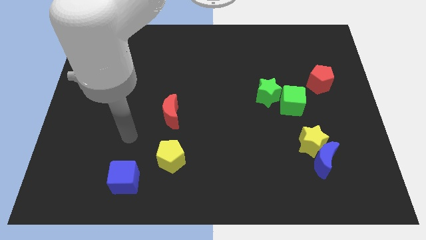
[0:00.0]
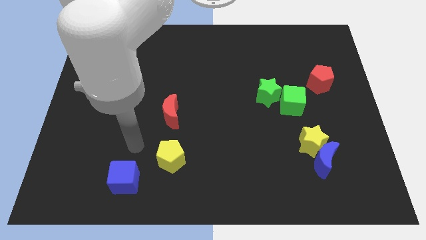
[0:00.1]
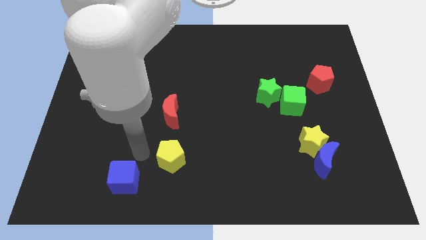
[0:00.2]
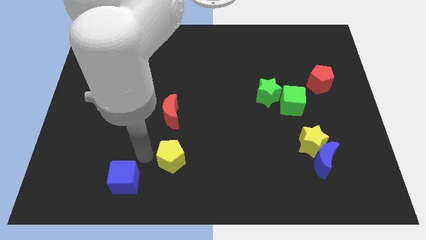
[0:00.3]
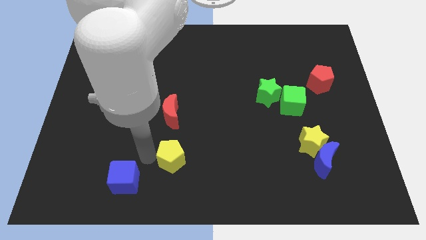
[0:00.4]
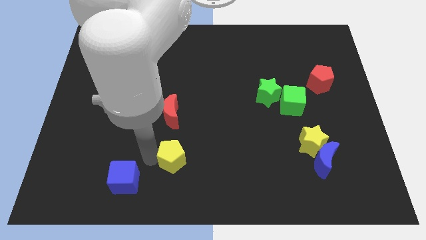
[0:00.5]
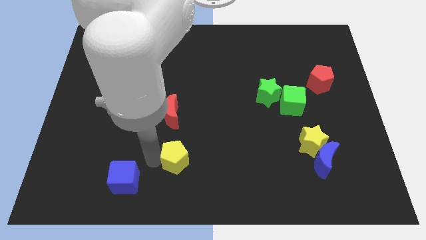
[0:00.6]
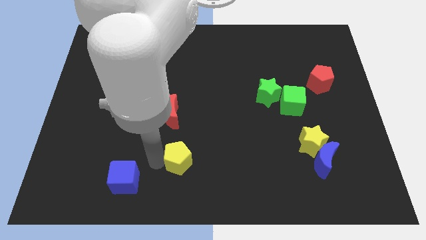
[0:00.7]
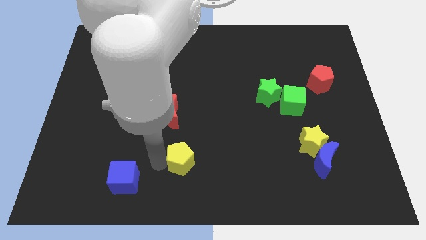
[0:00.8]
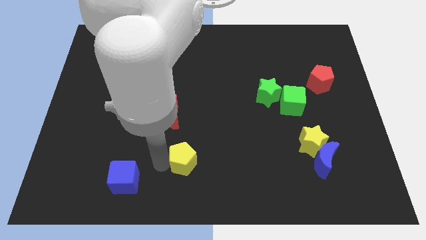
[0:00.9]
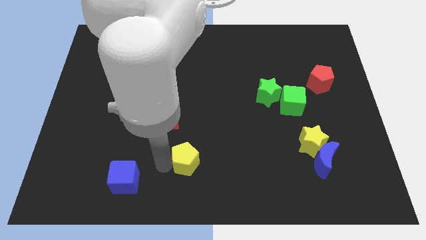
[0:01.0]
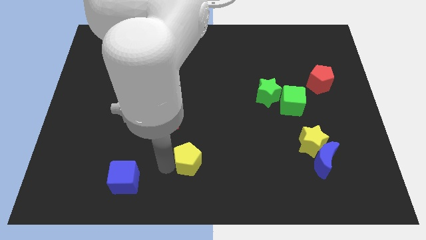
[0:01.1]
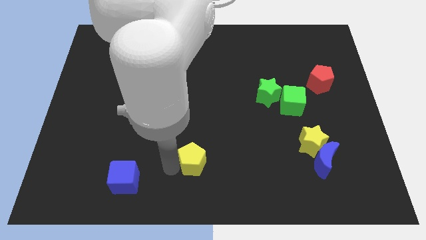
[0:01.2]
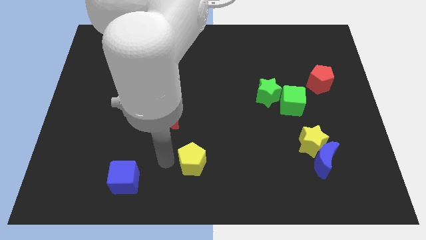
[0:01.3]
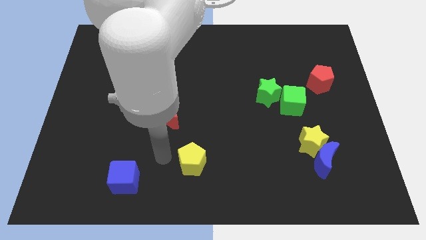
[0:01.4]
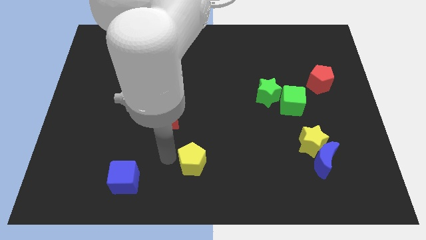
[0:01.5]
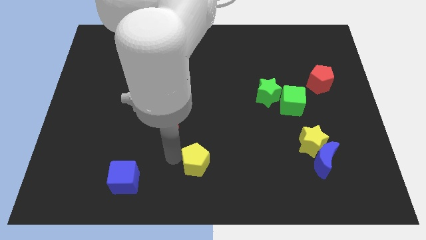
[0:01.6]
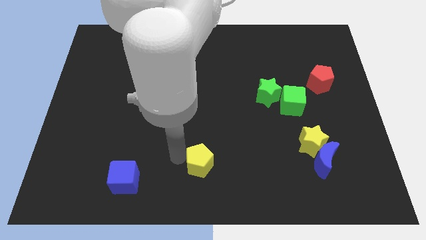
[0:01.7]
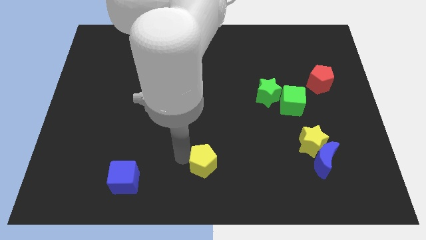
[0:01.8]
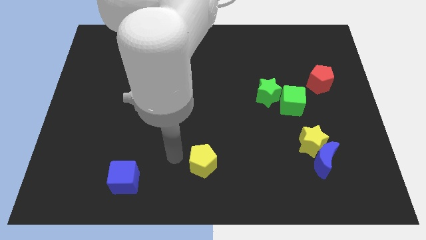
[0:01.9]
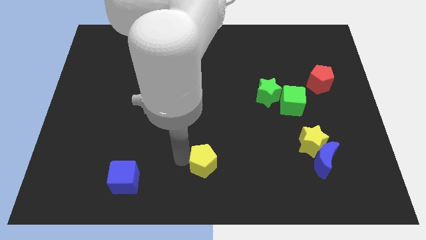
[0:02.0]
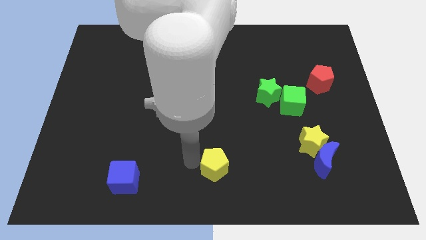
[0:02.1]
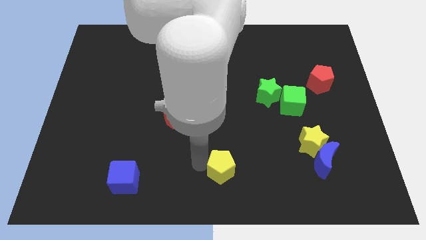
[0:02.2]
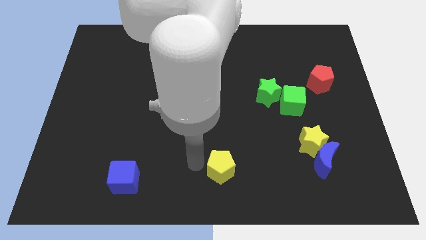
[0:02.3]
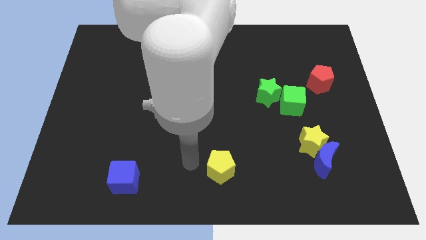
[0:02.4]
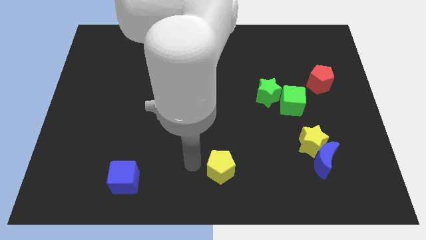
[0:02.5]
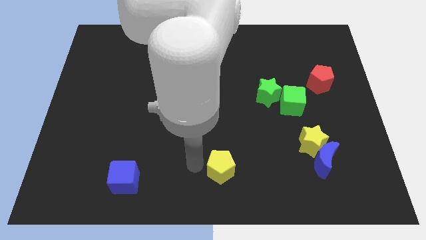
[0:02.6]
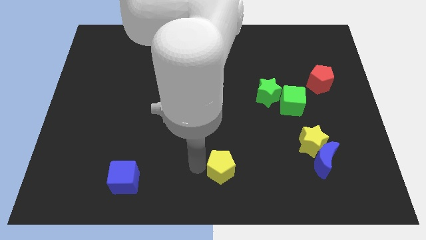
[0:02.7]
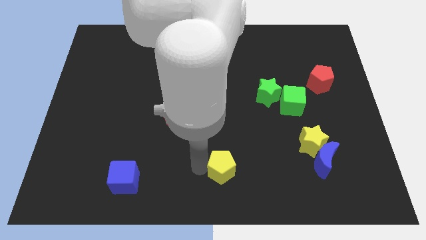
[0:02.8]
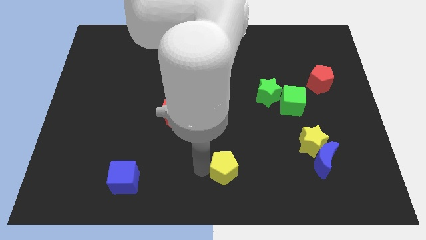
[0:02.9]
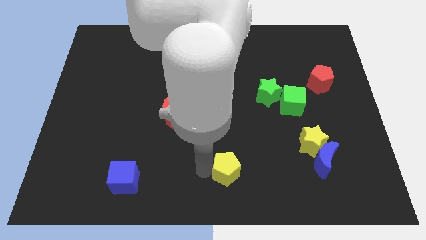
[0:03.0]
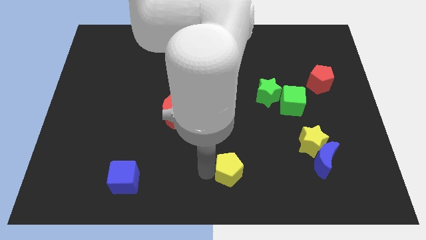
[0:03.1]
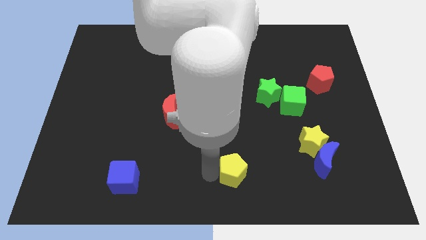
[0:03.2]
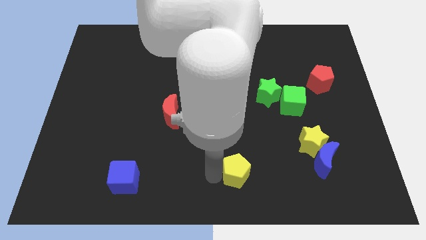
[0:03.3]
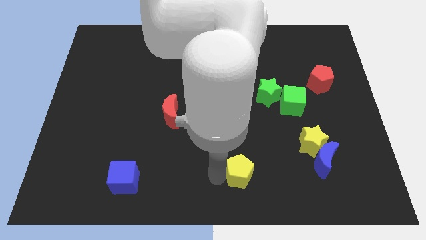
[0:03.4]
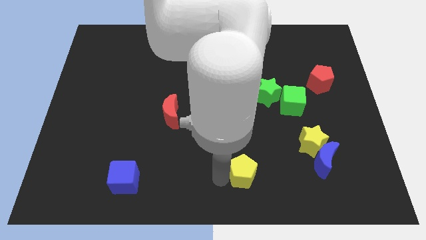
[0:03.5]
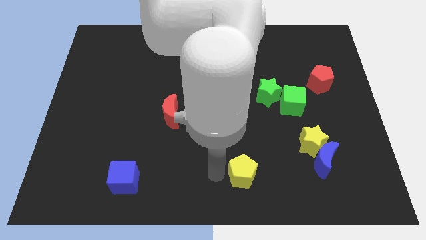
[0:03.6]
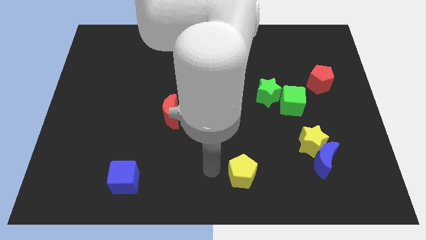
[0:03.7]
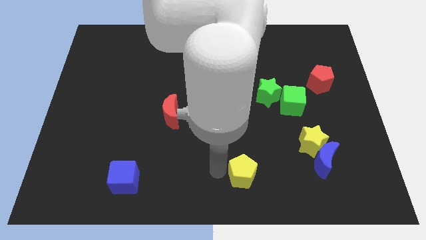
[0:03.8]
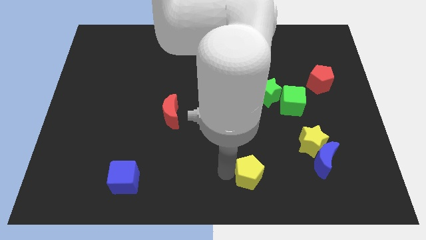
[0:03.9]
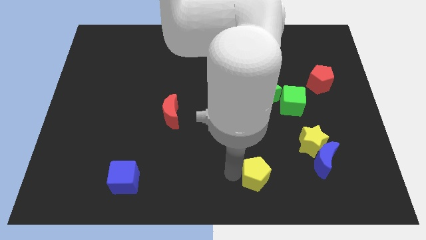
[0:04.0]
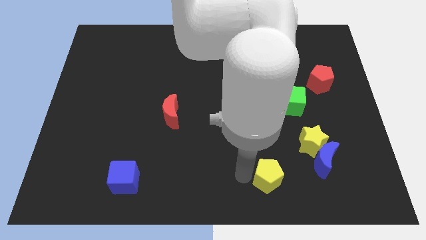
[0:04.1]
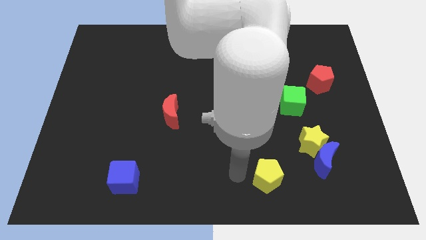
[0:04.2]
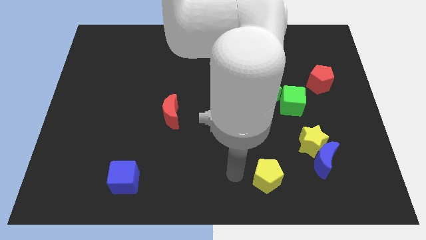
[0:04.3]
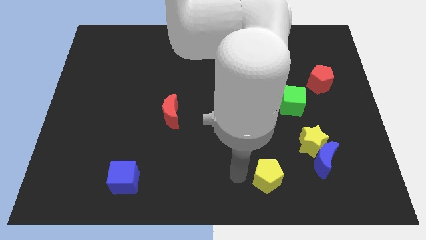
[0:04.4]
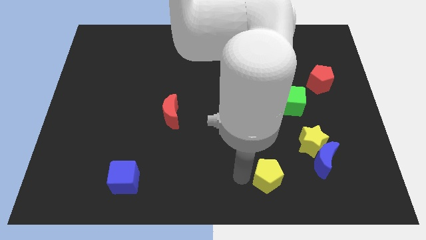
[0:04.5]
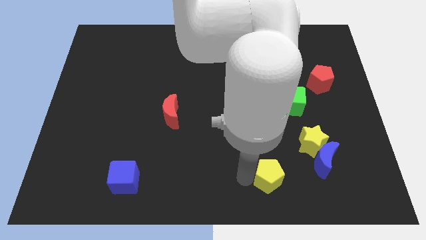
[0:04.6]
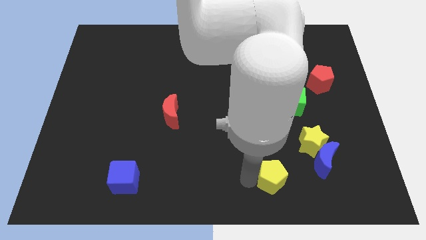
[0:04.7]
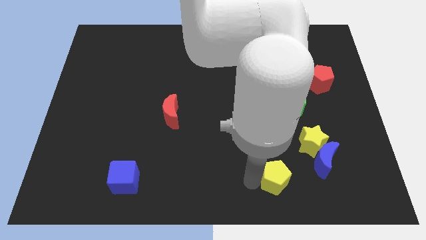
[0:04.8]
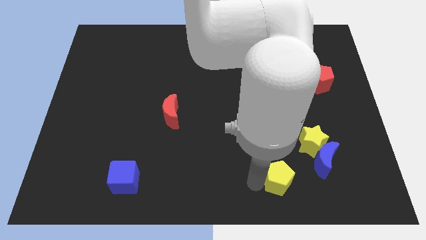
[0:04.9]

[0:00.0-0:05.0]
put the yellow pentagon to the bottom left of the blue moon

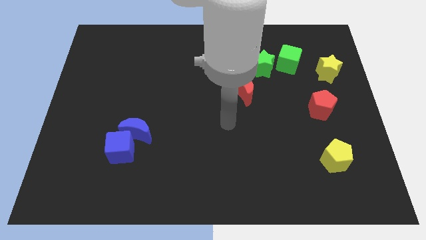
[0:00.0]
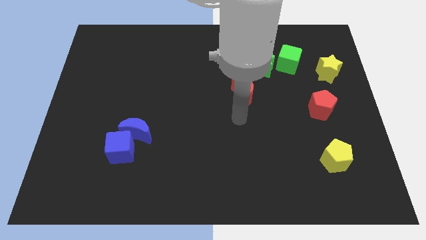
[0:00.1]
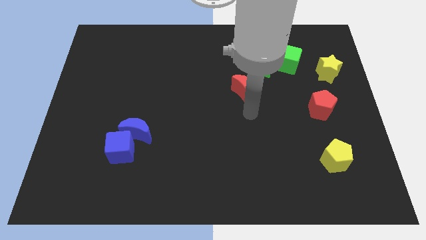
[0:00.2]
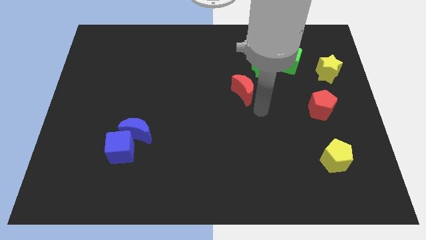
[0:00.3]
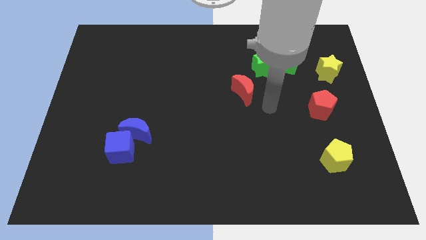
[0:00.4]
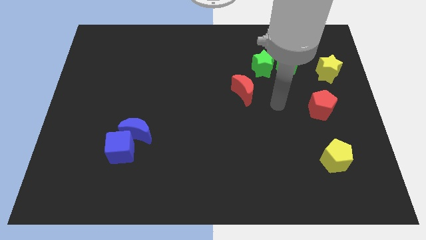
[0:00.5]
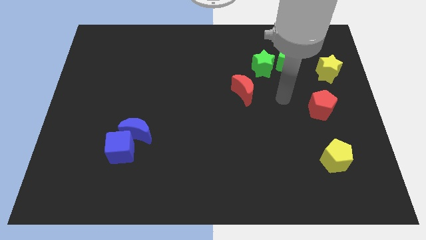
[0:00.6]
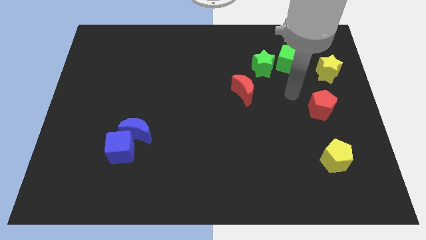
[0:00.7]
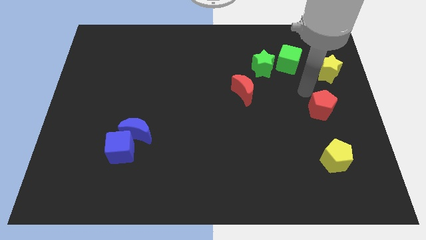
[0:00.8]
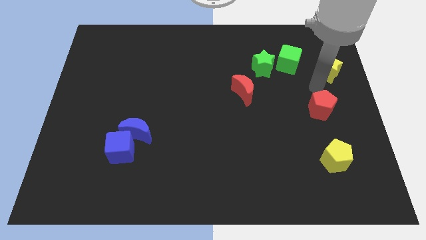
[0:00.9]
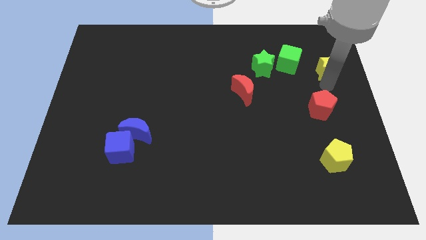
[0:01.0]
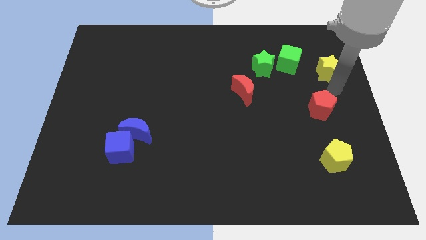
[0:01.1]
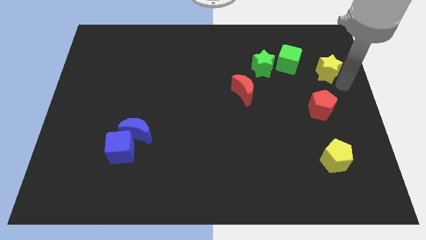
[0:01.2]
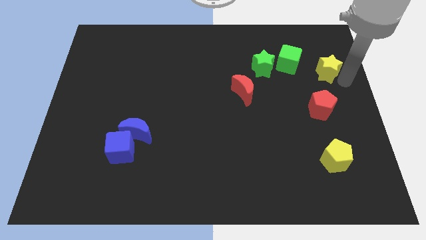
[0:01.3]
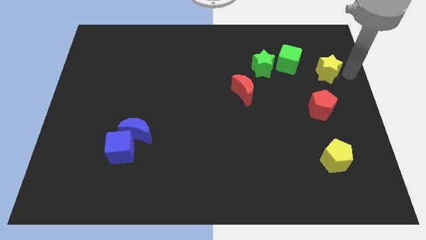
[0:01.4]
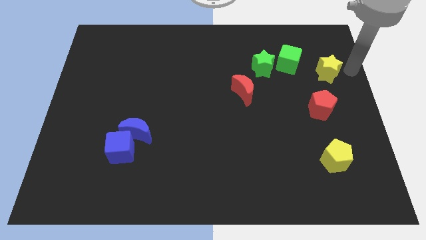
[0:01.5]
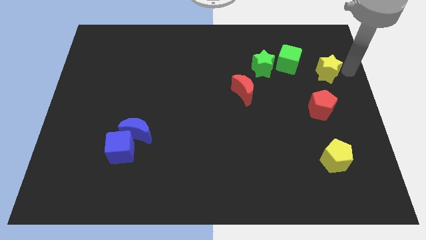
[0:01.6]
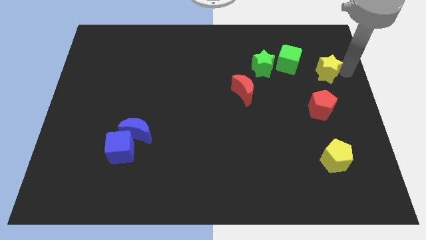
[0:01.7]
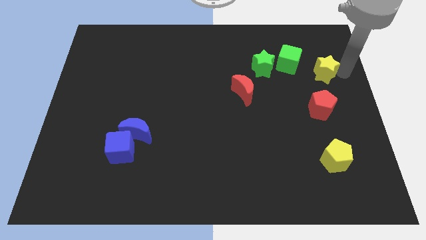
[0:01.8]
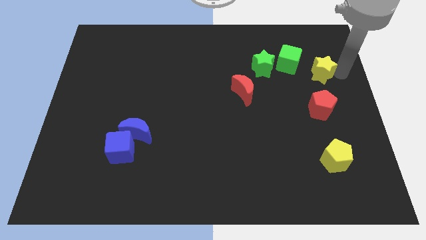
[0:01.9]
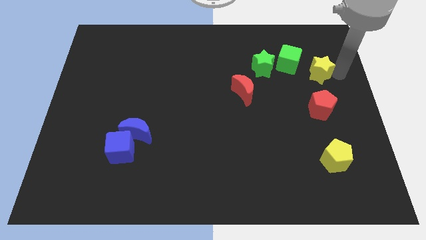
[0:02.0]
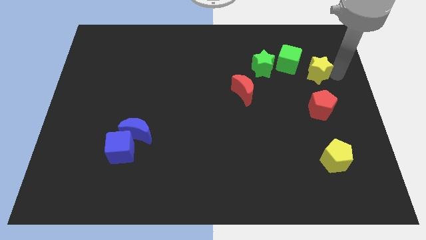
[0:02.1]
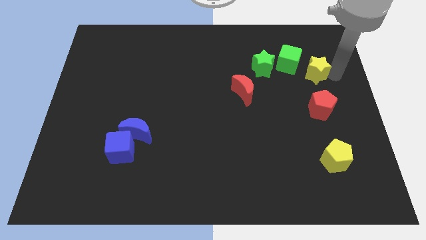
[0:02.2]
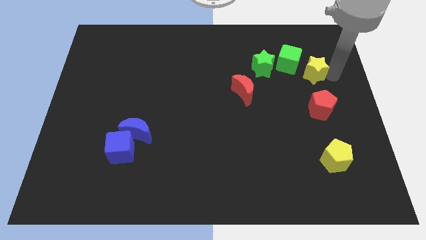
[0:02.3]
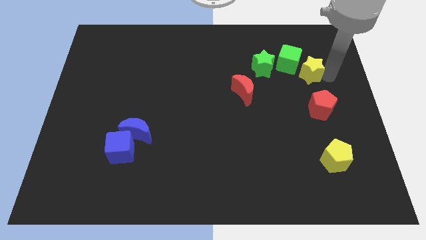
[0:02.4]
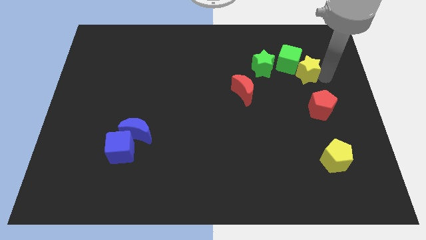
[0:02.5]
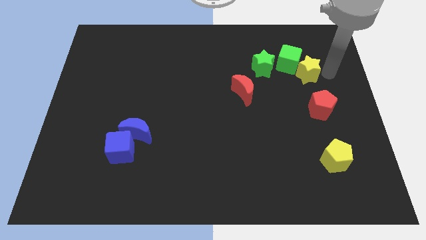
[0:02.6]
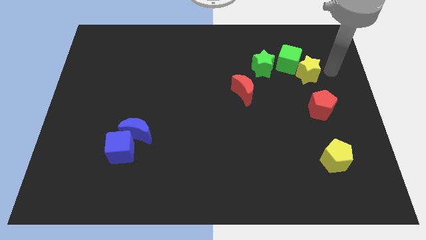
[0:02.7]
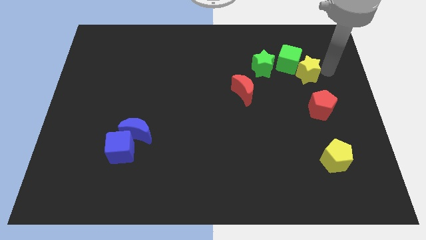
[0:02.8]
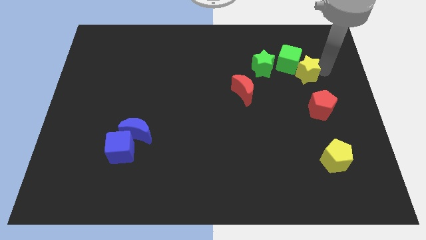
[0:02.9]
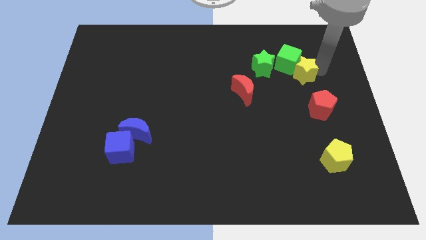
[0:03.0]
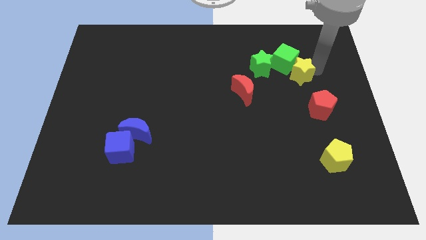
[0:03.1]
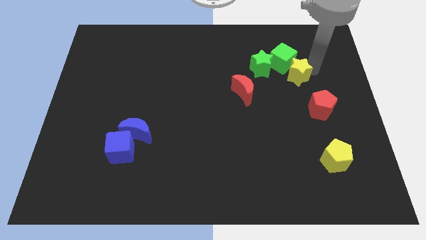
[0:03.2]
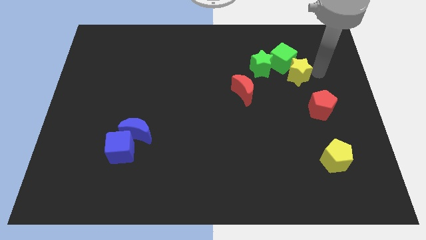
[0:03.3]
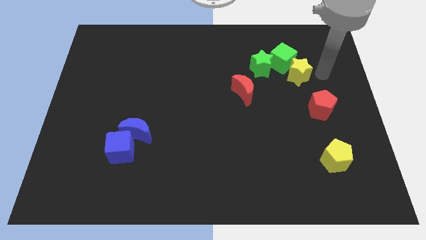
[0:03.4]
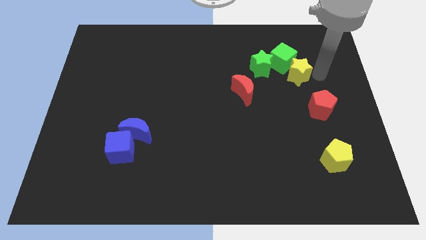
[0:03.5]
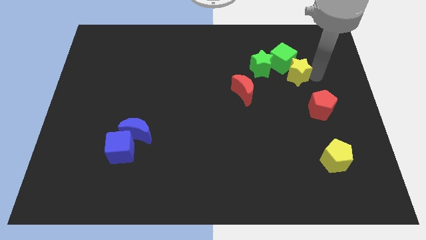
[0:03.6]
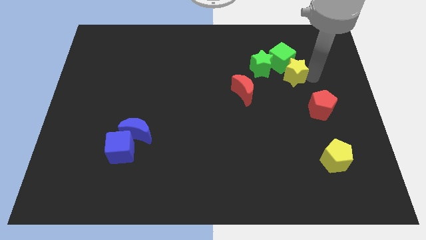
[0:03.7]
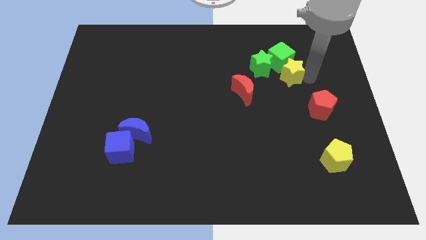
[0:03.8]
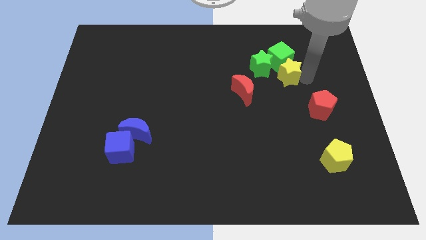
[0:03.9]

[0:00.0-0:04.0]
slide the yellow star to the bottom left side of the green cube
